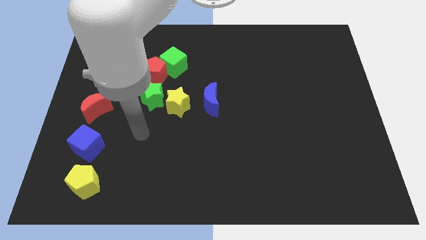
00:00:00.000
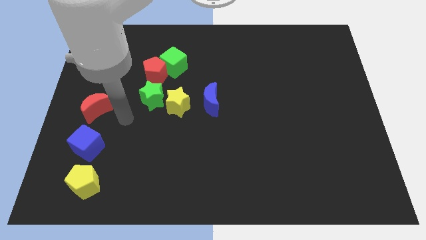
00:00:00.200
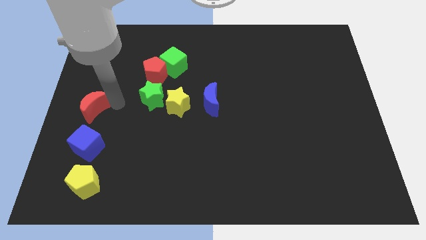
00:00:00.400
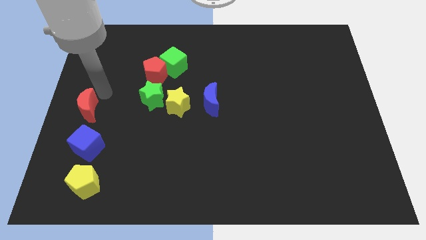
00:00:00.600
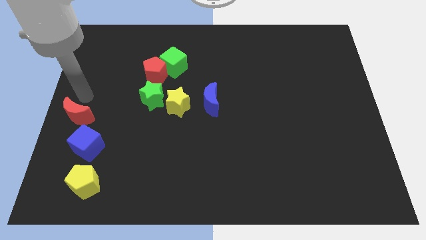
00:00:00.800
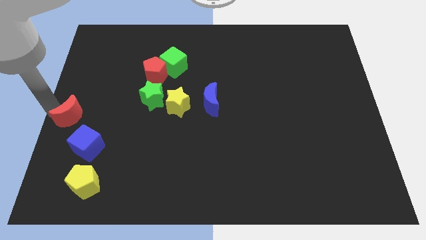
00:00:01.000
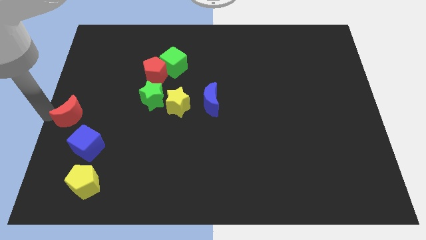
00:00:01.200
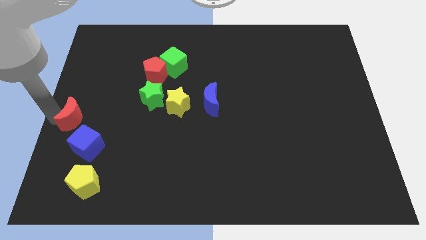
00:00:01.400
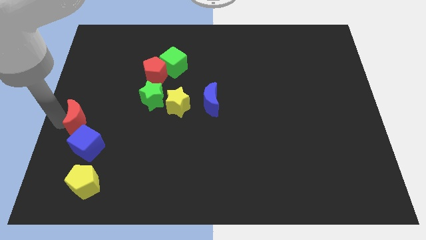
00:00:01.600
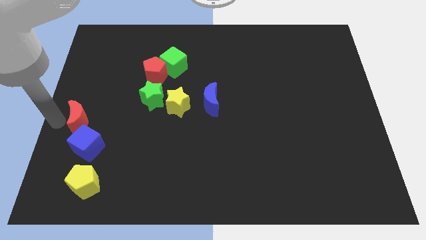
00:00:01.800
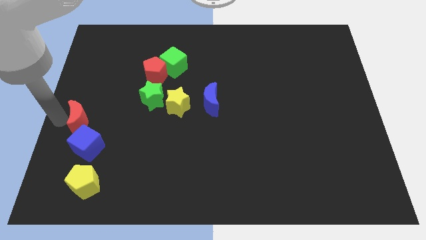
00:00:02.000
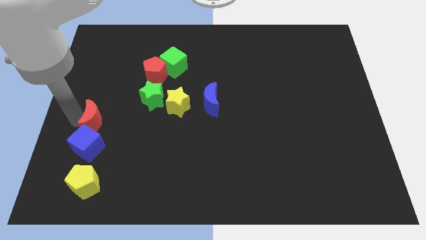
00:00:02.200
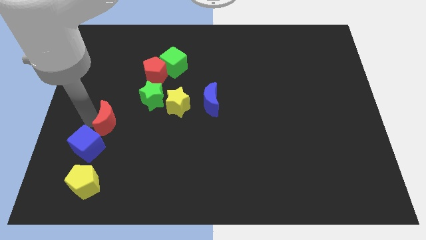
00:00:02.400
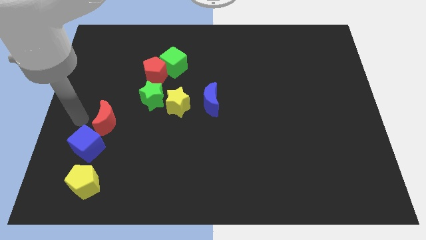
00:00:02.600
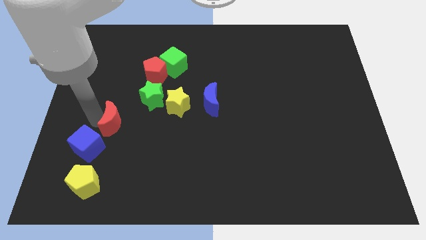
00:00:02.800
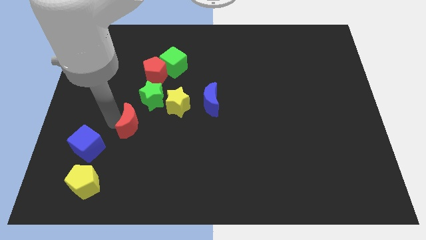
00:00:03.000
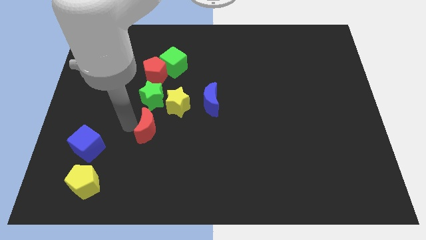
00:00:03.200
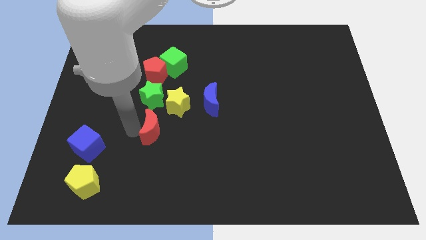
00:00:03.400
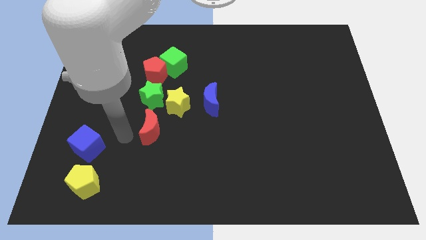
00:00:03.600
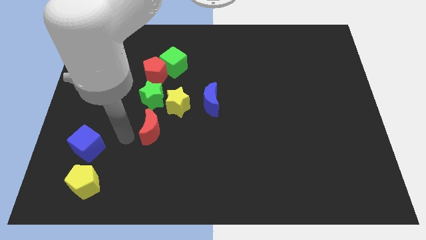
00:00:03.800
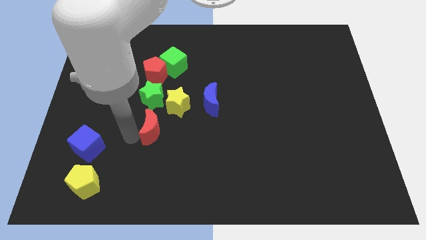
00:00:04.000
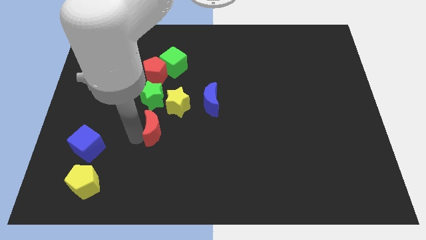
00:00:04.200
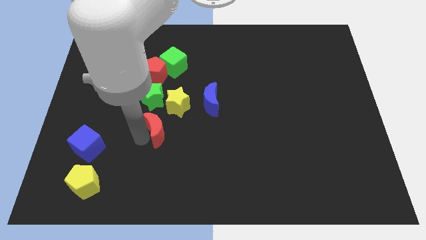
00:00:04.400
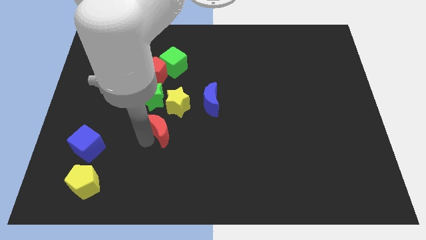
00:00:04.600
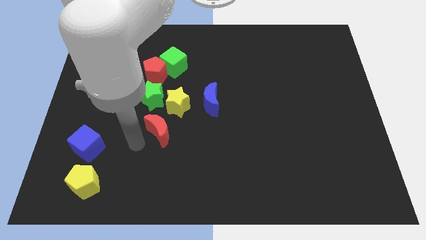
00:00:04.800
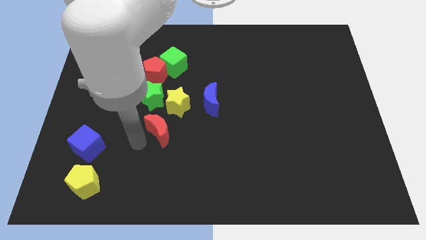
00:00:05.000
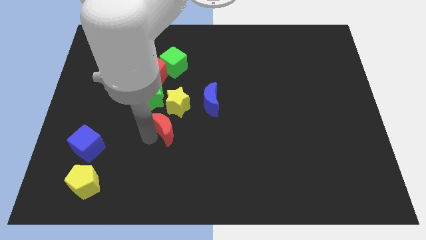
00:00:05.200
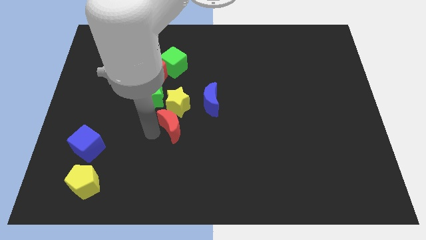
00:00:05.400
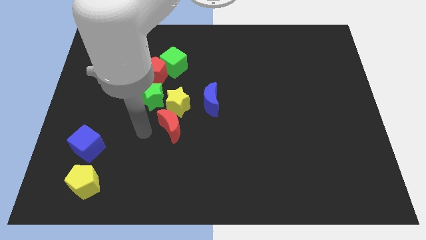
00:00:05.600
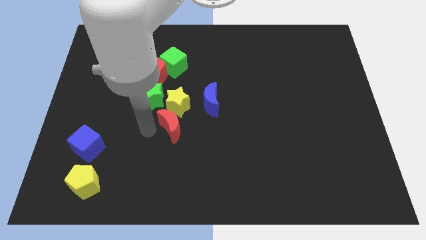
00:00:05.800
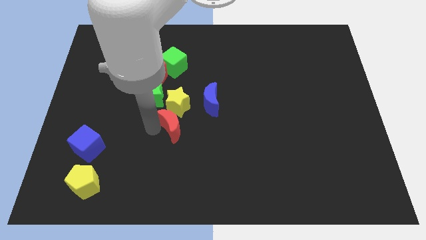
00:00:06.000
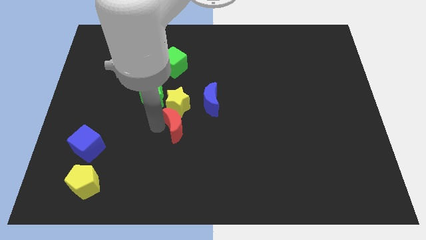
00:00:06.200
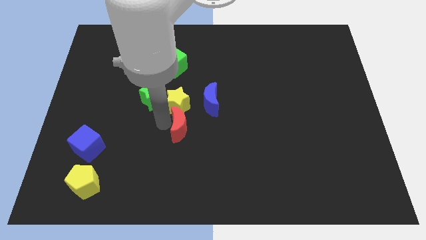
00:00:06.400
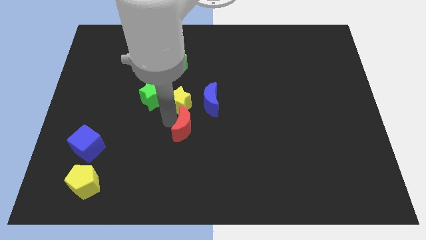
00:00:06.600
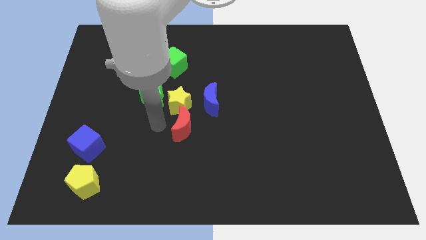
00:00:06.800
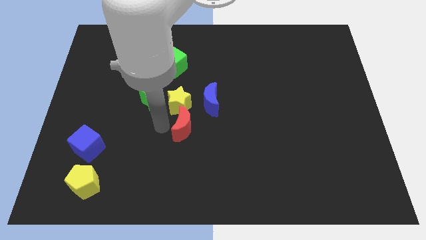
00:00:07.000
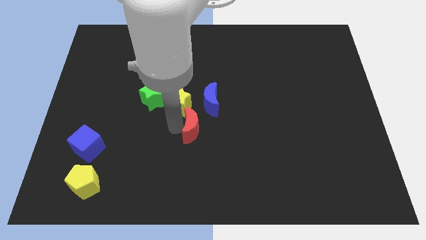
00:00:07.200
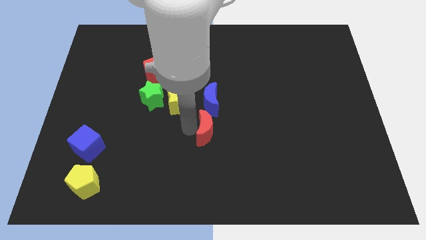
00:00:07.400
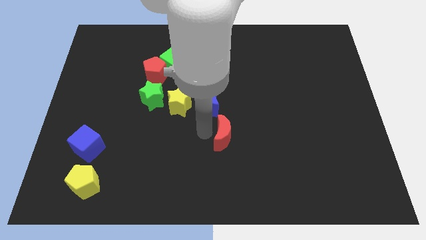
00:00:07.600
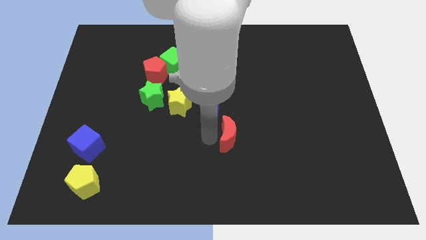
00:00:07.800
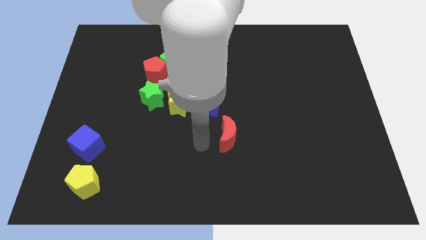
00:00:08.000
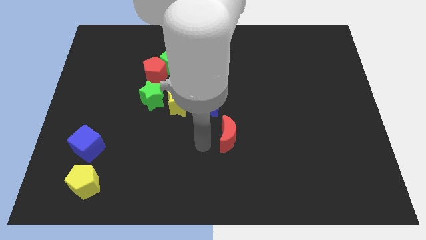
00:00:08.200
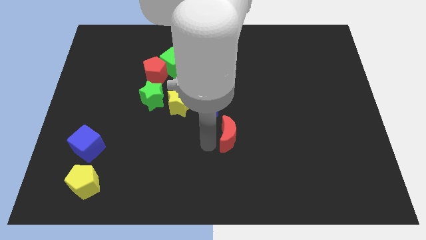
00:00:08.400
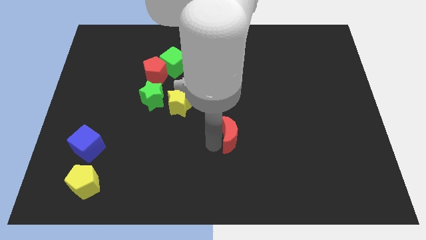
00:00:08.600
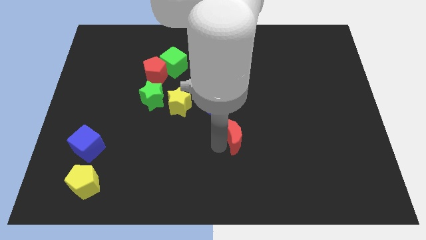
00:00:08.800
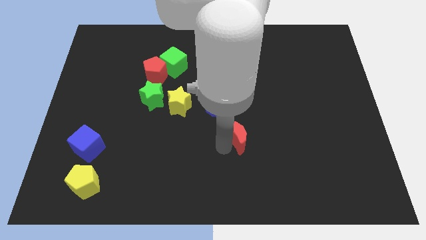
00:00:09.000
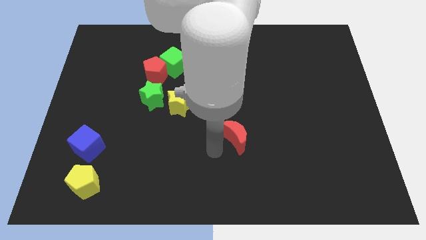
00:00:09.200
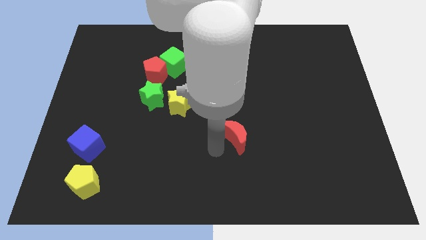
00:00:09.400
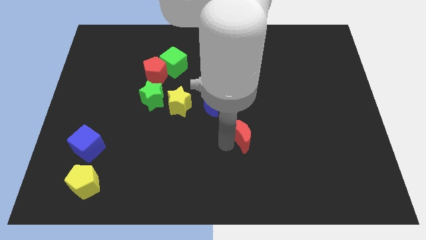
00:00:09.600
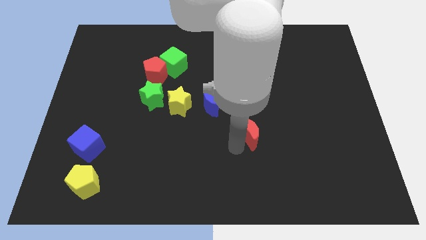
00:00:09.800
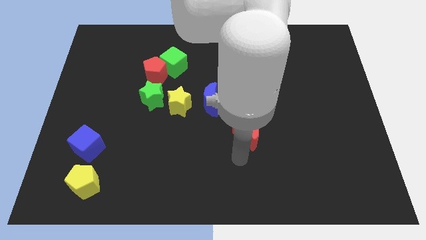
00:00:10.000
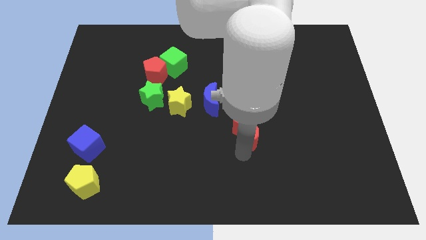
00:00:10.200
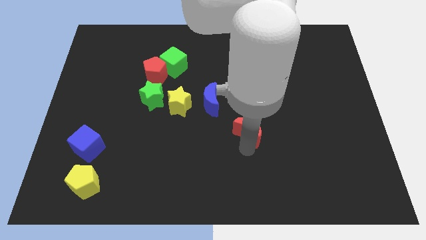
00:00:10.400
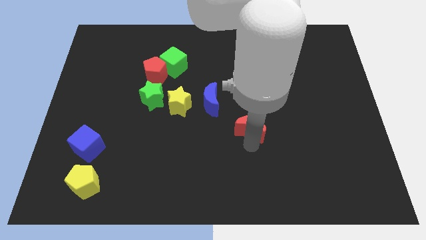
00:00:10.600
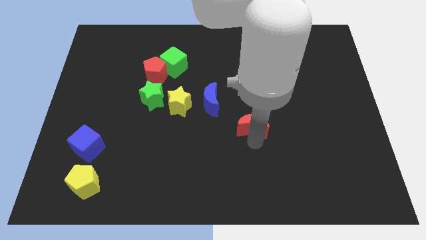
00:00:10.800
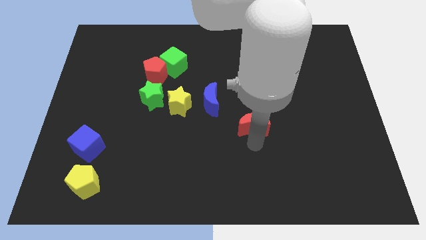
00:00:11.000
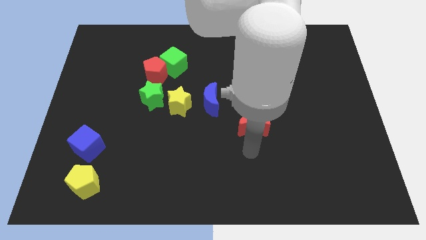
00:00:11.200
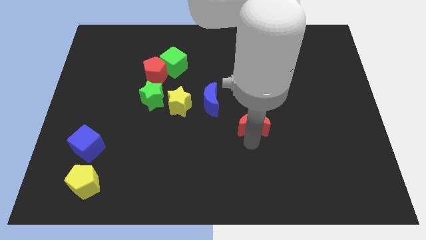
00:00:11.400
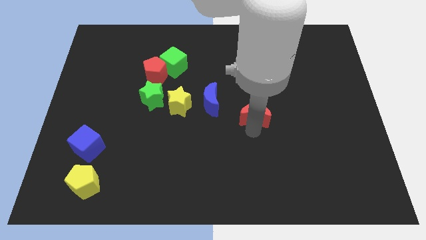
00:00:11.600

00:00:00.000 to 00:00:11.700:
move the red moon to the right of the blue moon

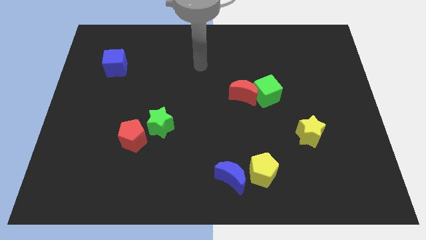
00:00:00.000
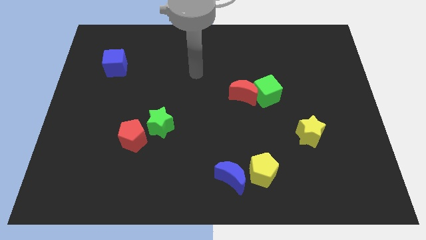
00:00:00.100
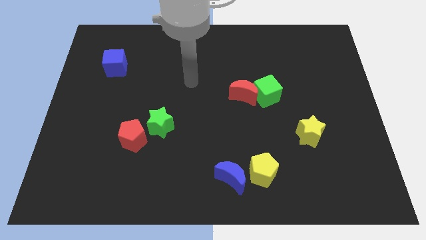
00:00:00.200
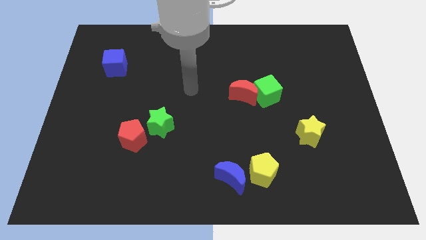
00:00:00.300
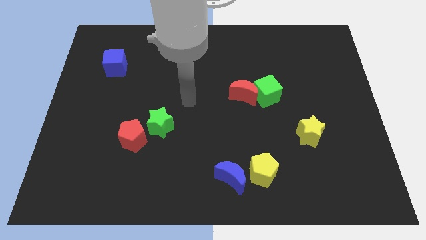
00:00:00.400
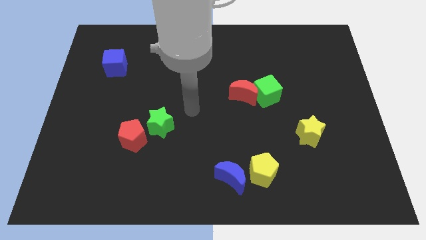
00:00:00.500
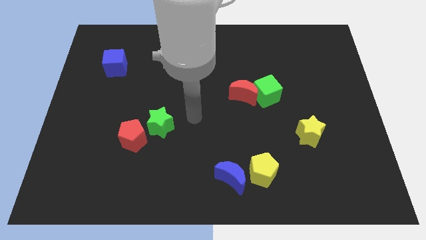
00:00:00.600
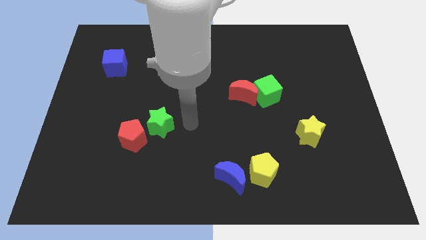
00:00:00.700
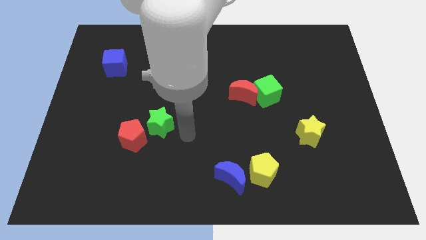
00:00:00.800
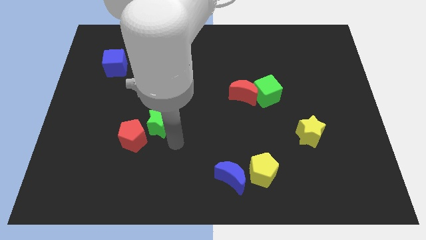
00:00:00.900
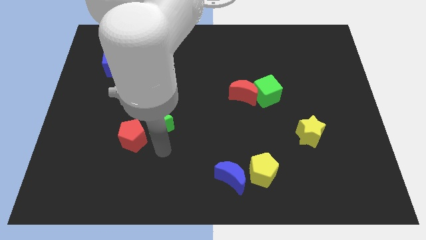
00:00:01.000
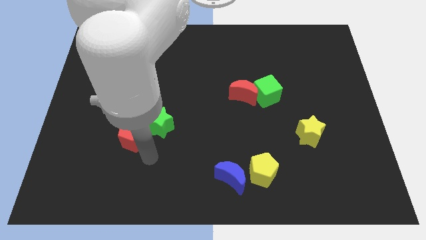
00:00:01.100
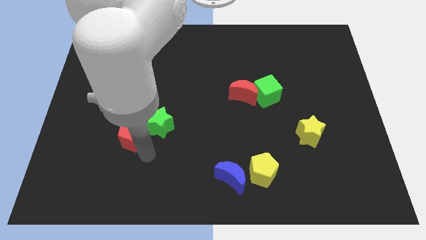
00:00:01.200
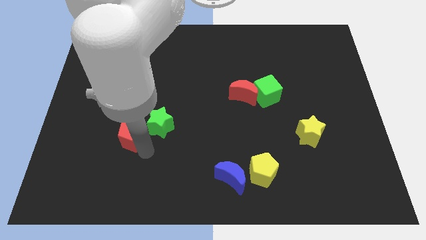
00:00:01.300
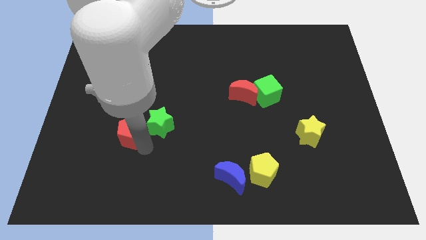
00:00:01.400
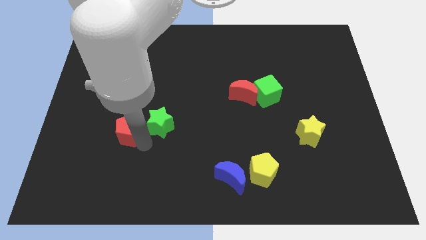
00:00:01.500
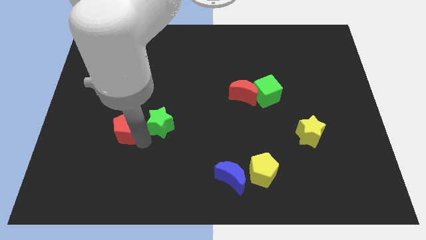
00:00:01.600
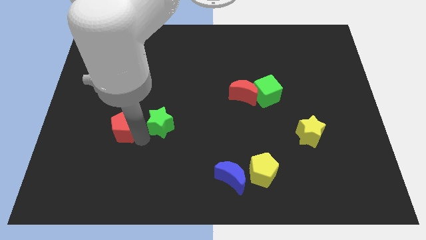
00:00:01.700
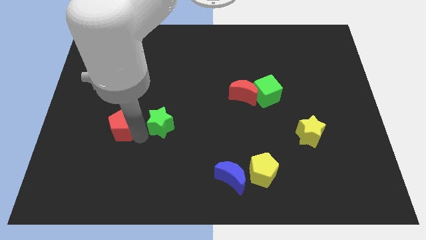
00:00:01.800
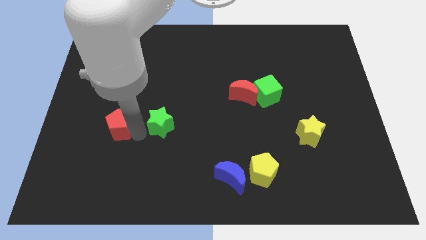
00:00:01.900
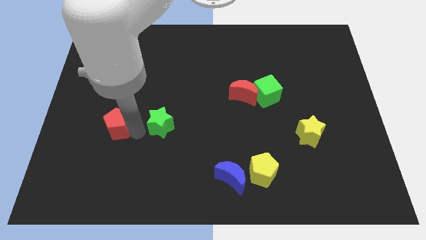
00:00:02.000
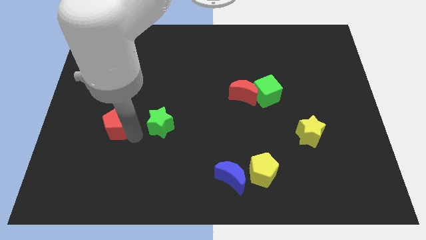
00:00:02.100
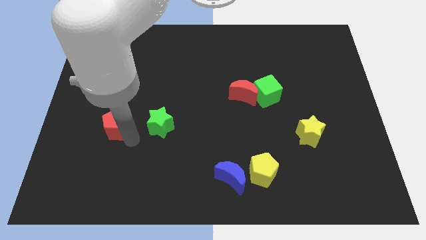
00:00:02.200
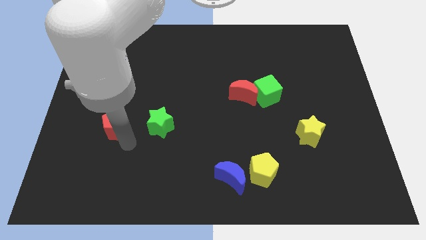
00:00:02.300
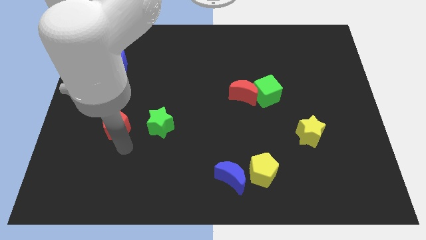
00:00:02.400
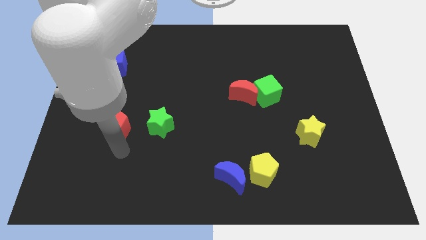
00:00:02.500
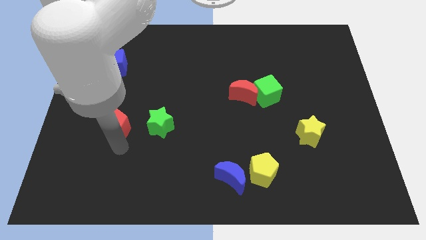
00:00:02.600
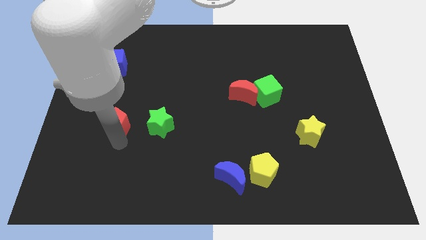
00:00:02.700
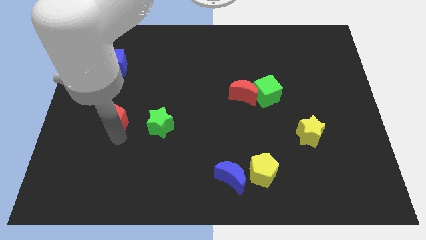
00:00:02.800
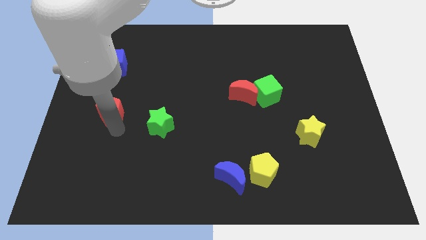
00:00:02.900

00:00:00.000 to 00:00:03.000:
put the red pentagon to the bottom of the blue cube
